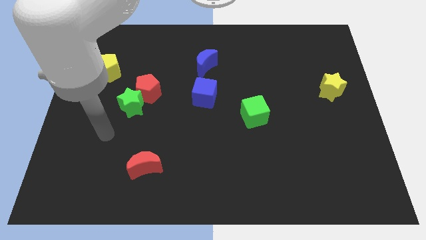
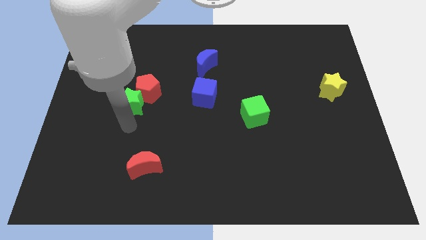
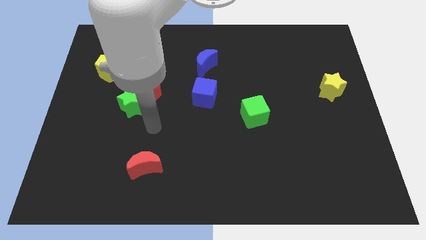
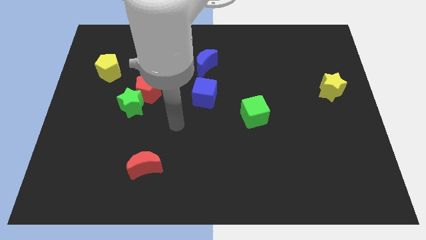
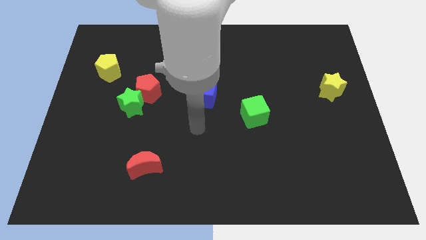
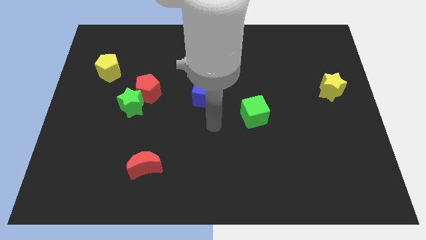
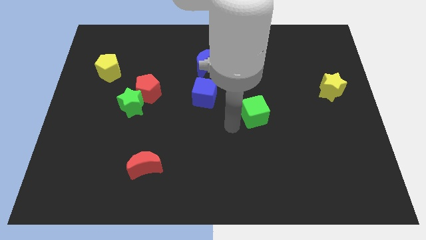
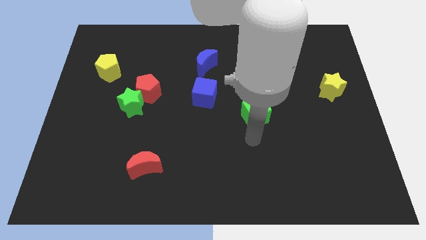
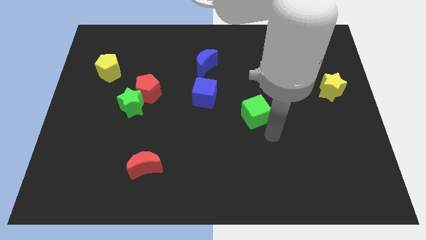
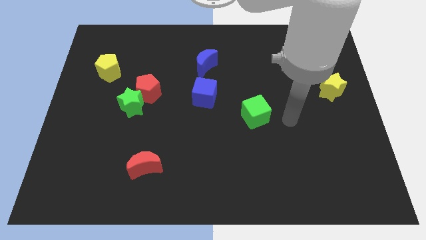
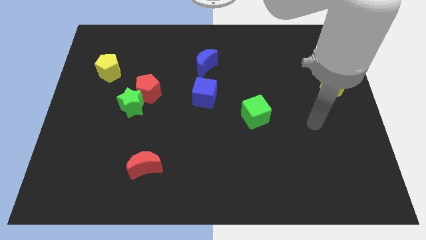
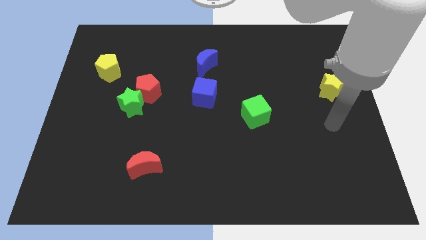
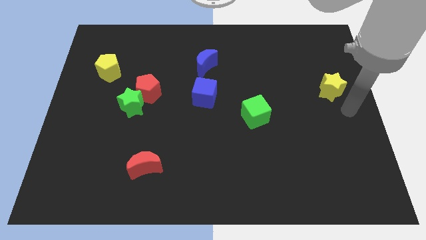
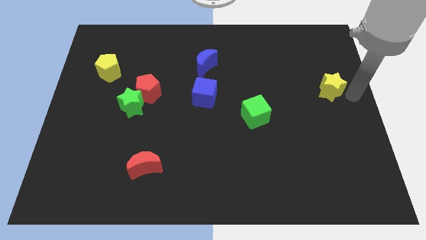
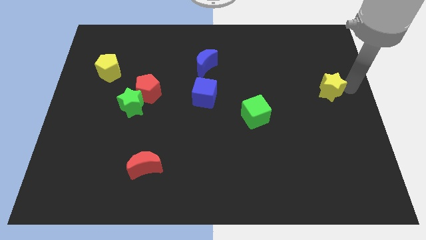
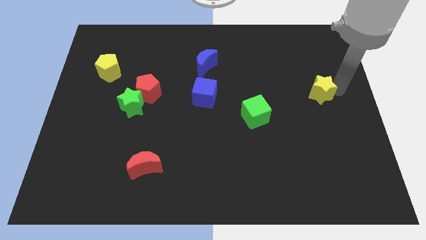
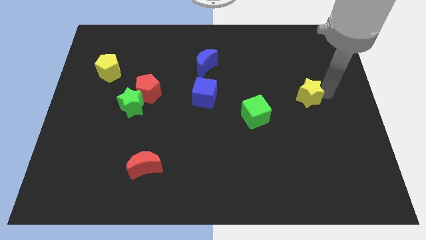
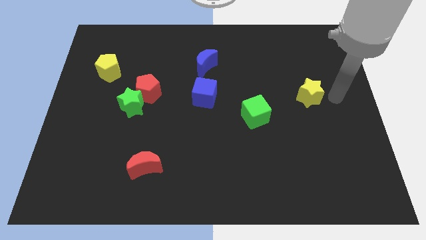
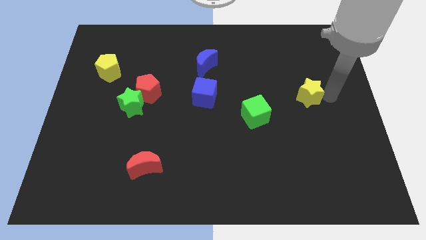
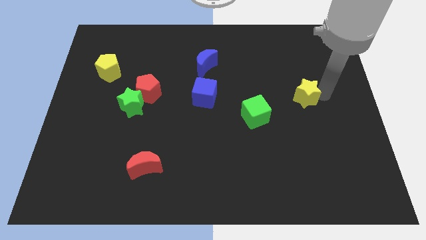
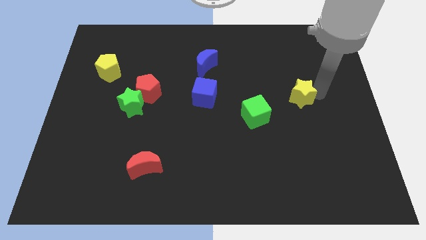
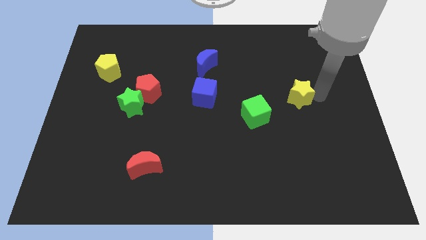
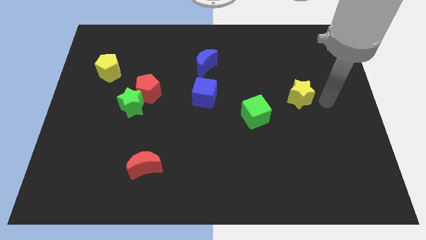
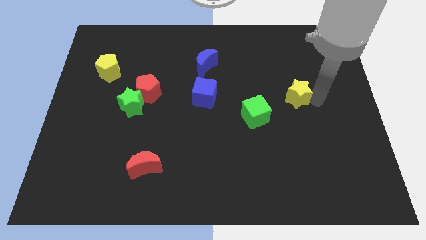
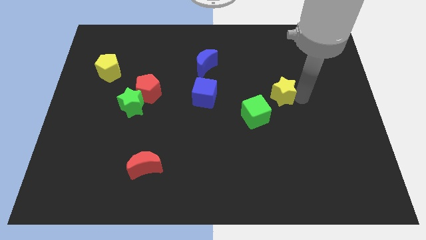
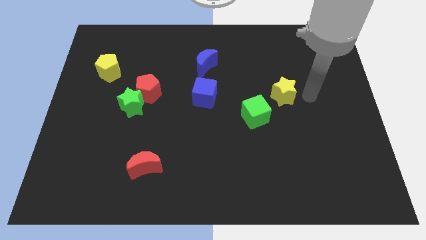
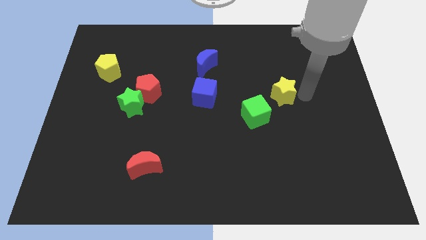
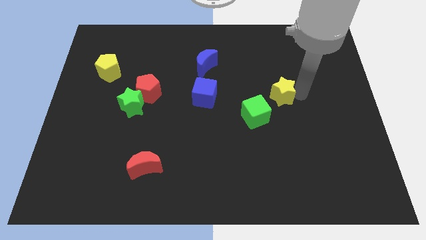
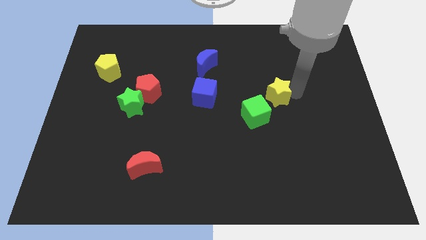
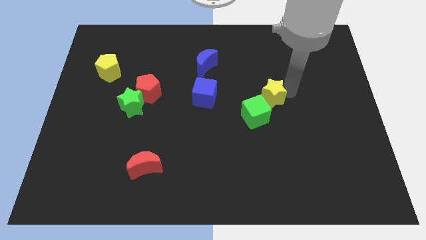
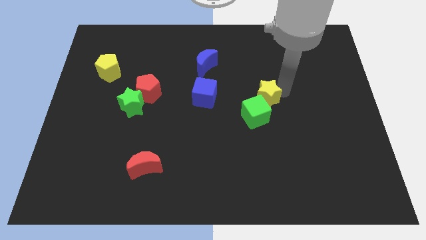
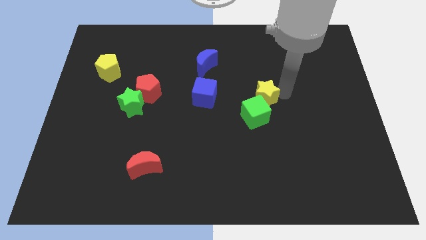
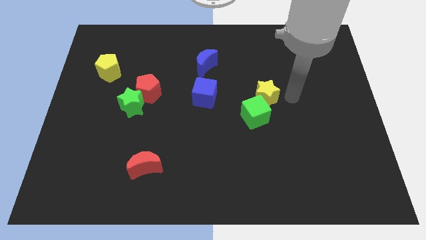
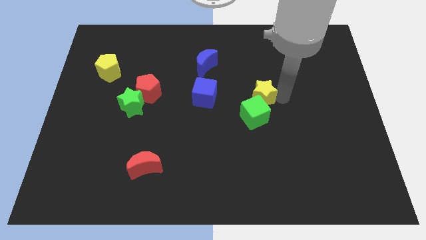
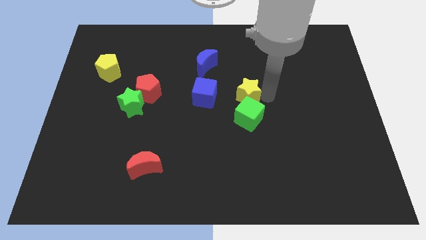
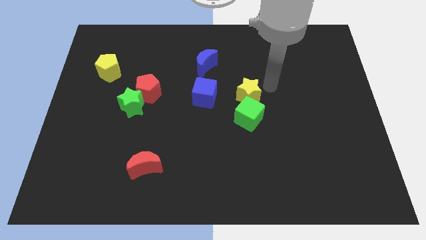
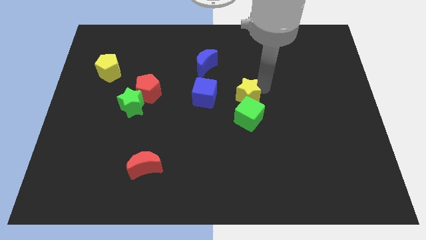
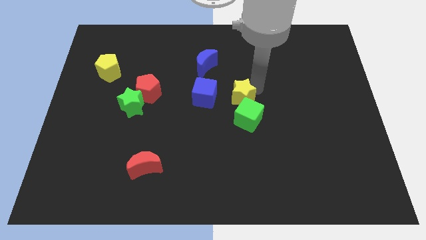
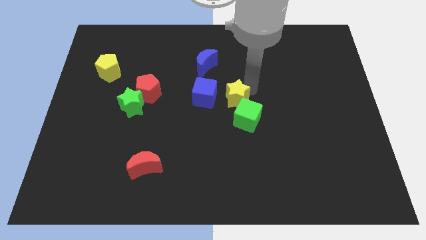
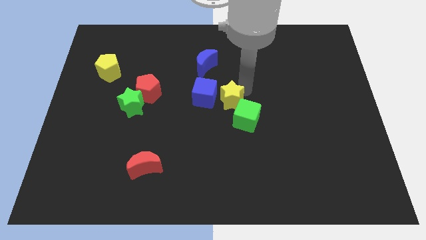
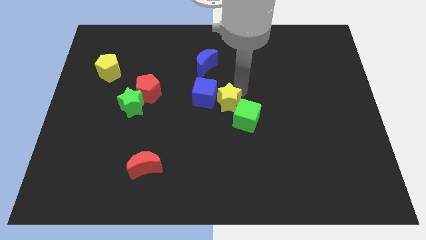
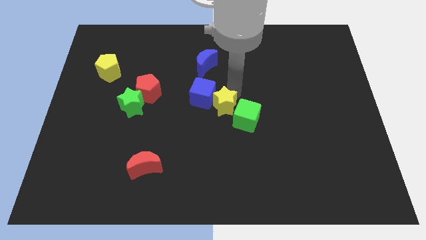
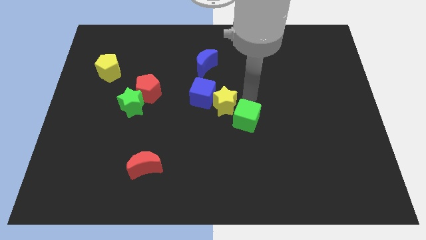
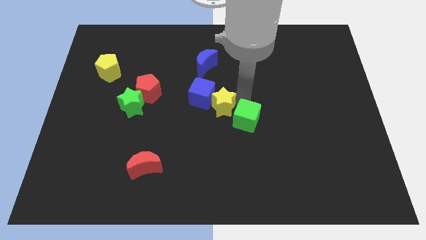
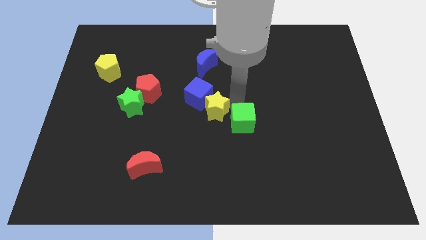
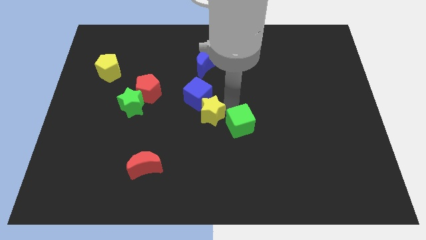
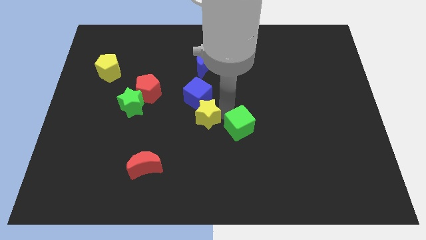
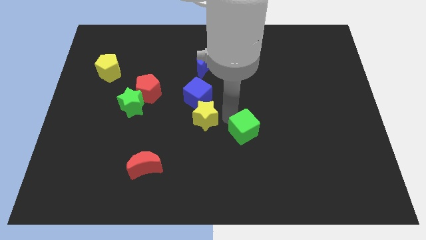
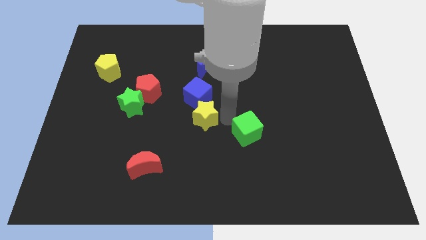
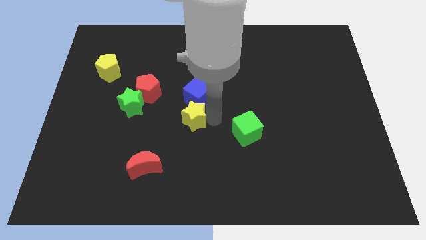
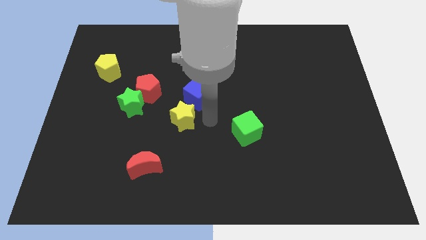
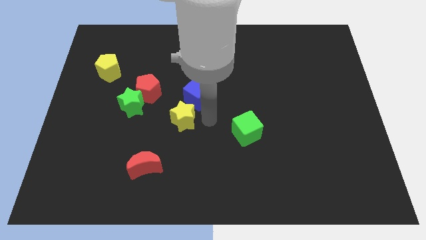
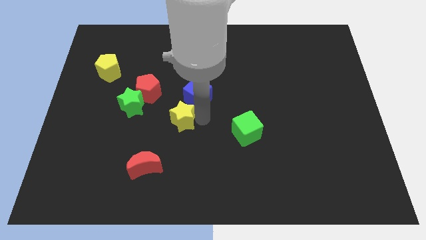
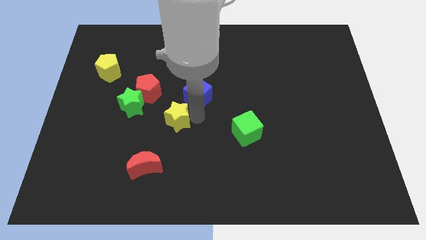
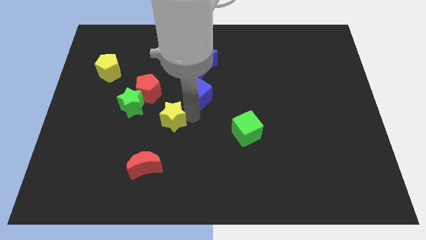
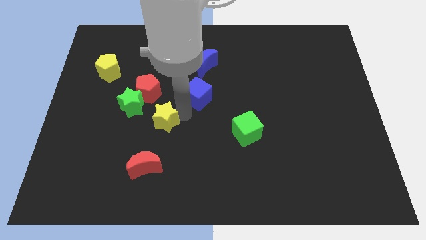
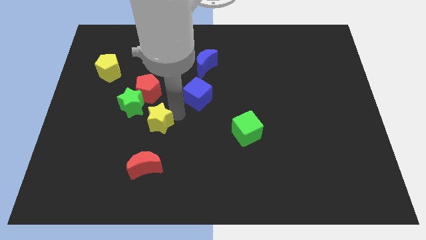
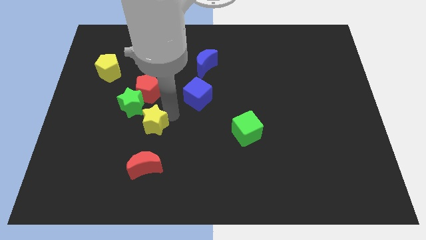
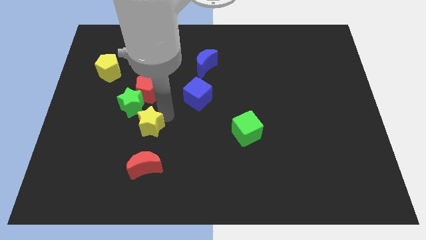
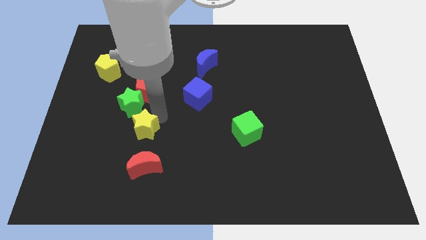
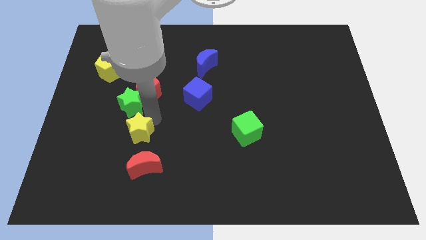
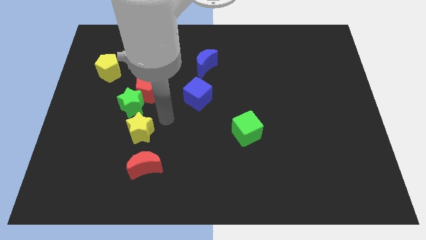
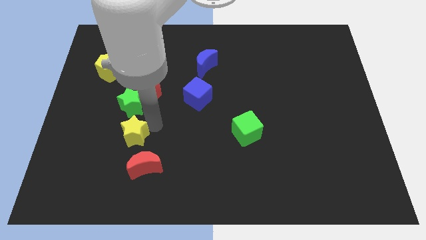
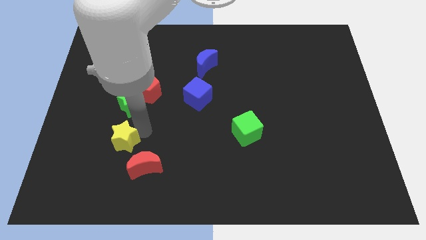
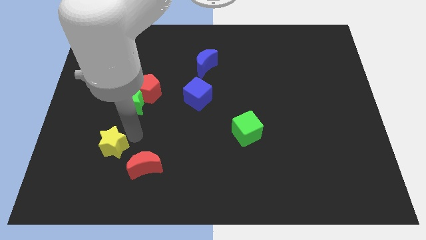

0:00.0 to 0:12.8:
put the yellow star to the left of the red moon
